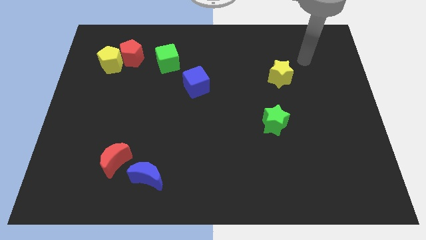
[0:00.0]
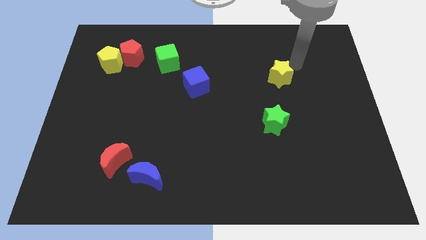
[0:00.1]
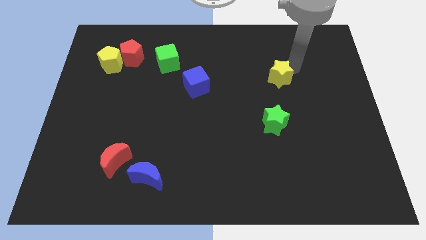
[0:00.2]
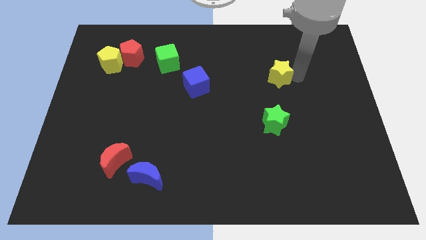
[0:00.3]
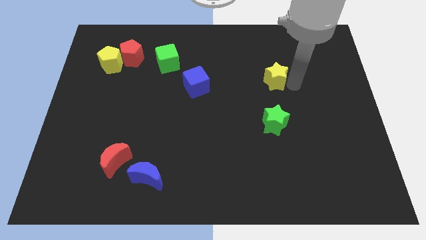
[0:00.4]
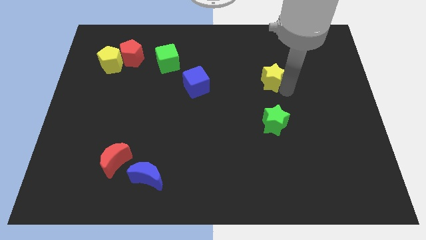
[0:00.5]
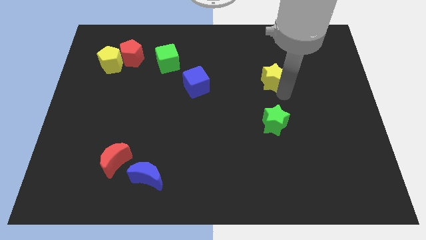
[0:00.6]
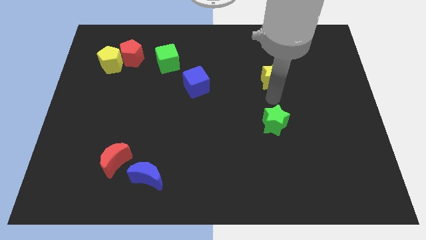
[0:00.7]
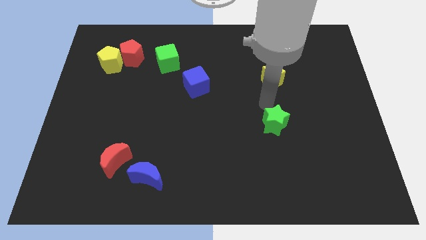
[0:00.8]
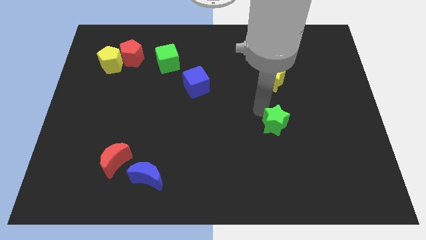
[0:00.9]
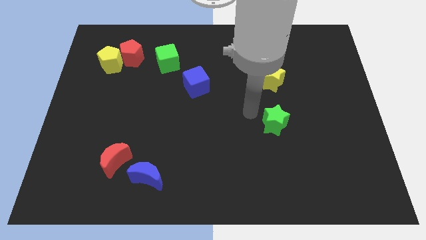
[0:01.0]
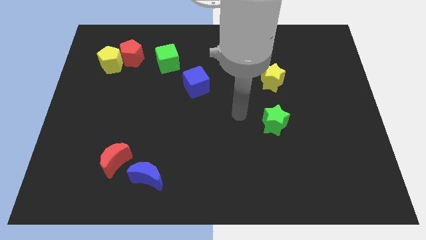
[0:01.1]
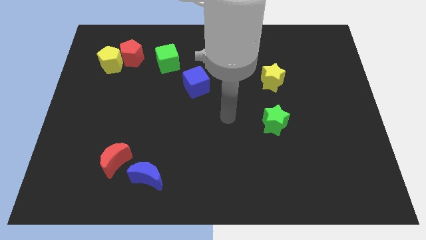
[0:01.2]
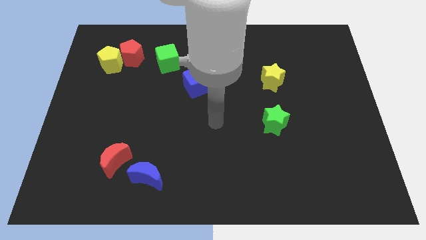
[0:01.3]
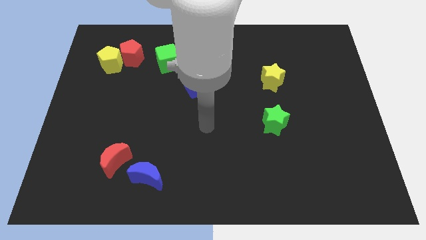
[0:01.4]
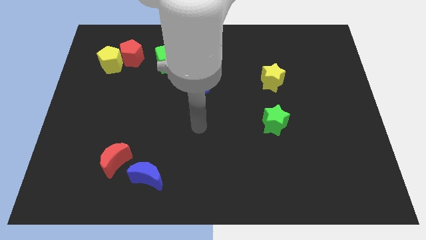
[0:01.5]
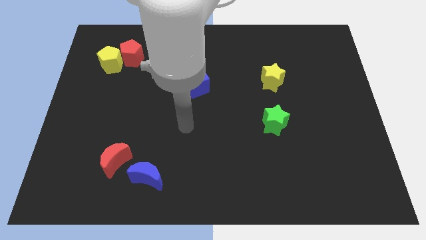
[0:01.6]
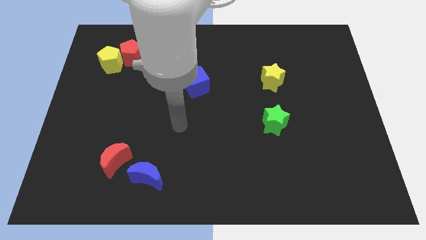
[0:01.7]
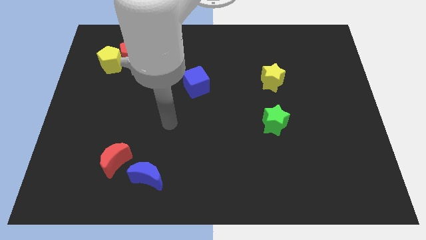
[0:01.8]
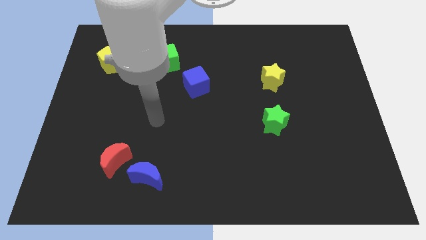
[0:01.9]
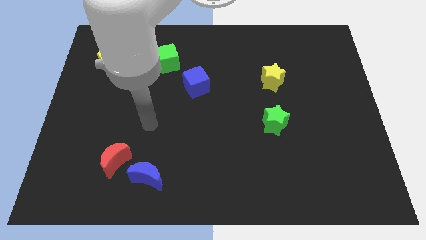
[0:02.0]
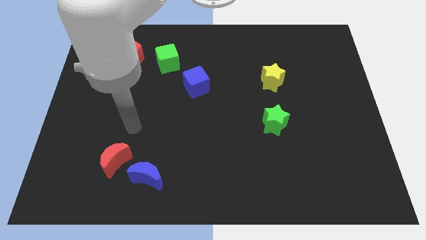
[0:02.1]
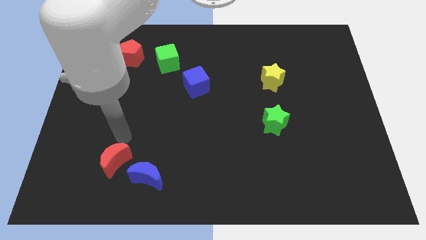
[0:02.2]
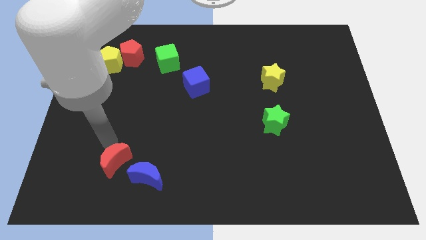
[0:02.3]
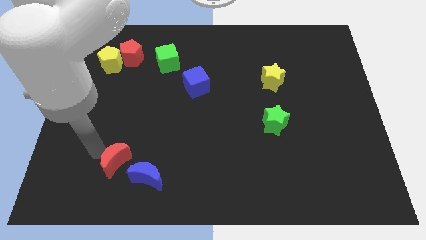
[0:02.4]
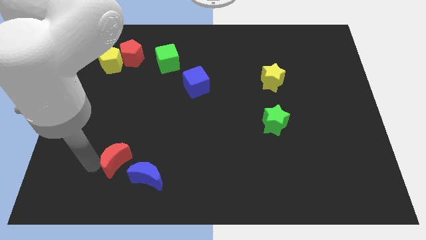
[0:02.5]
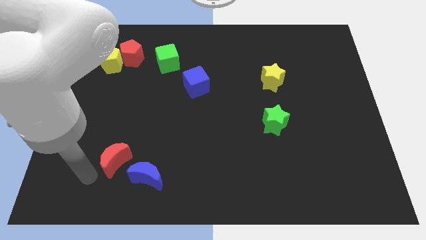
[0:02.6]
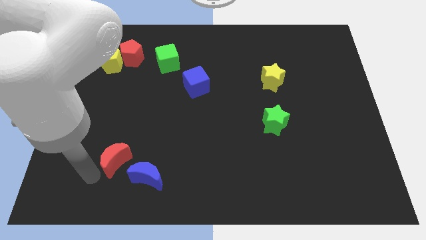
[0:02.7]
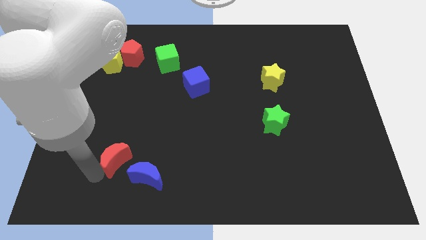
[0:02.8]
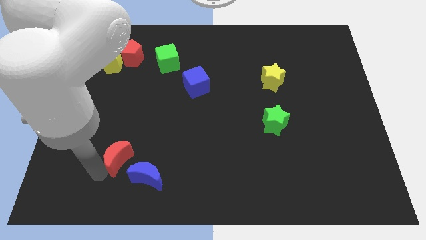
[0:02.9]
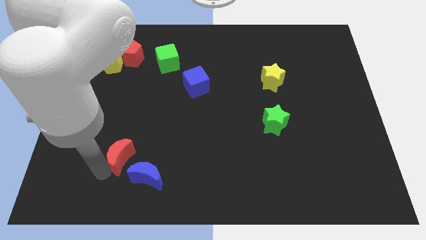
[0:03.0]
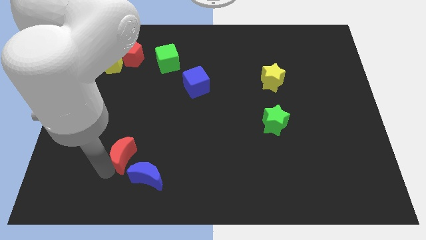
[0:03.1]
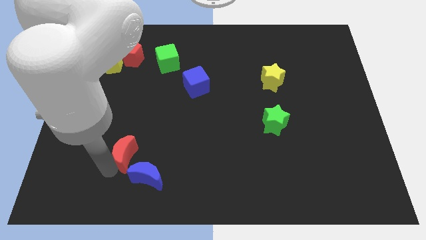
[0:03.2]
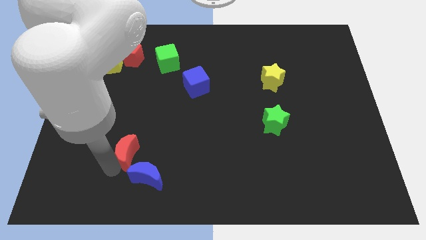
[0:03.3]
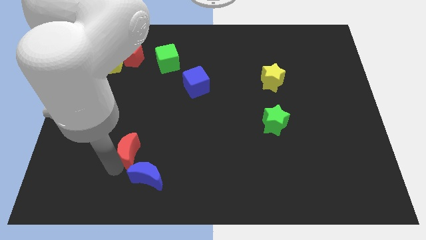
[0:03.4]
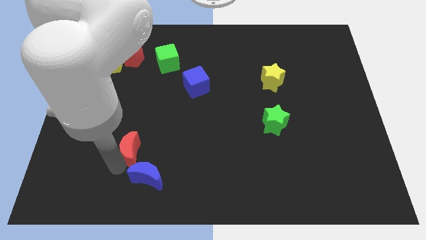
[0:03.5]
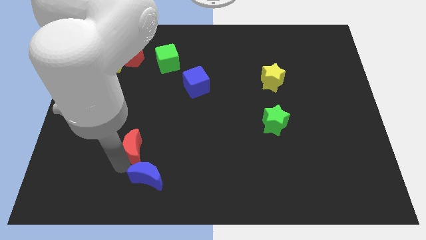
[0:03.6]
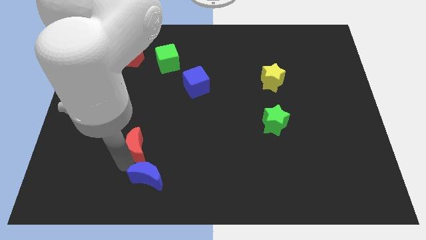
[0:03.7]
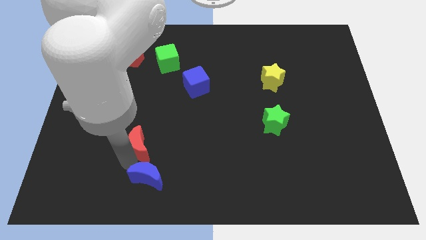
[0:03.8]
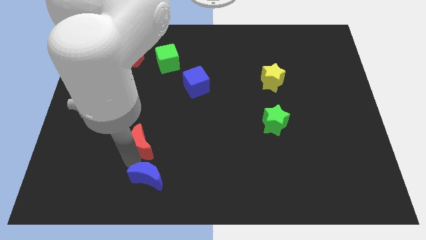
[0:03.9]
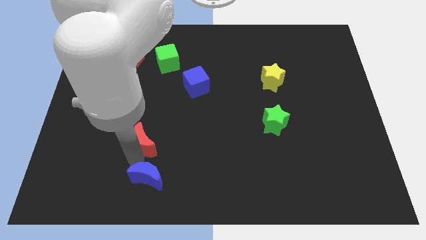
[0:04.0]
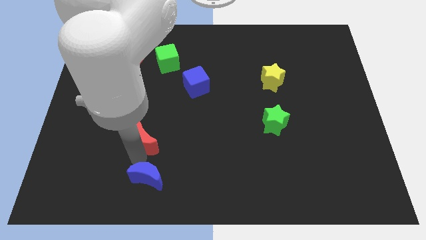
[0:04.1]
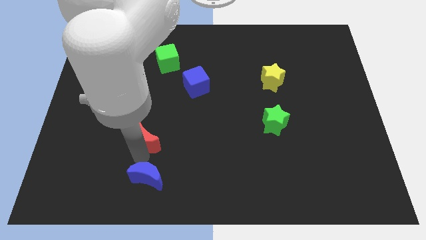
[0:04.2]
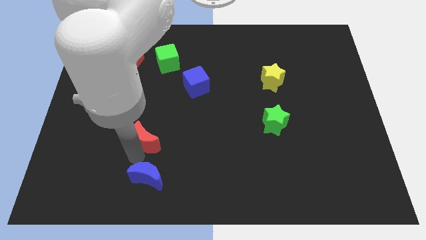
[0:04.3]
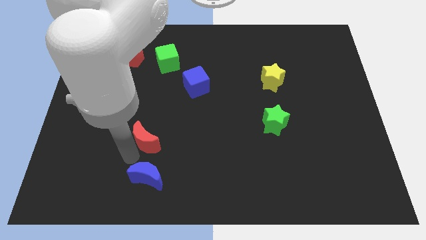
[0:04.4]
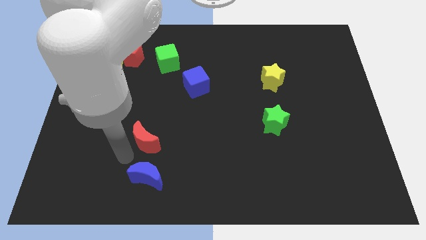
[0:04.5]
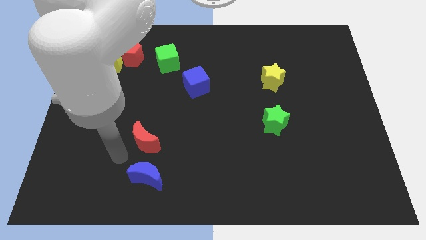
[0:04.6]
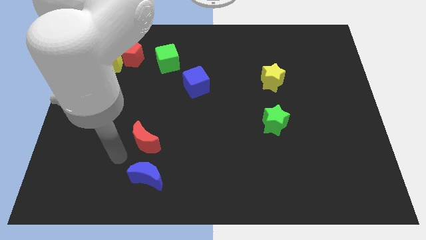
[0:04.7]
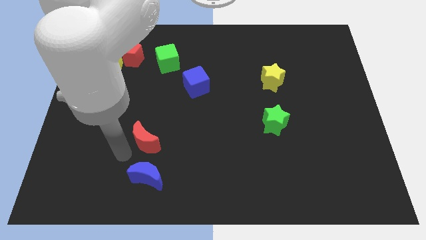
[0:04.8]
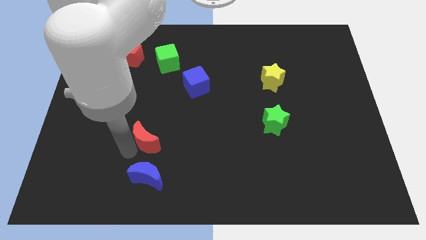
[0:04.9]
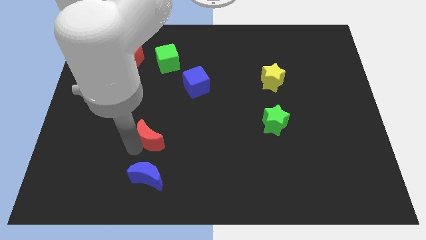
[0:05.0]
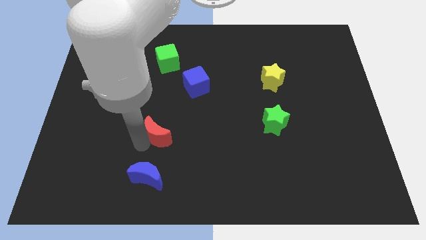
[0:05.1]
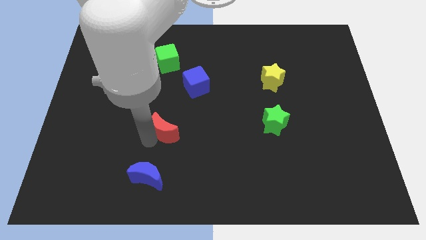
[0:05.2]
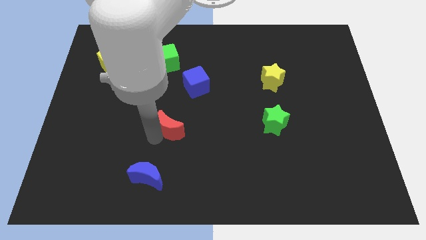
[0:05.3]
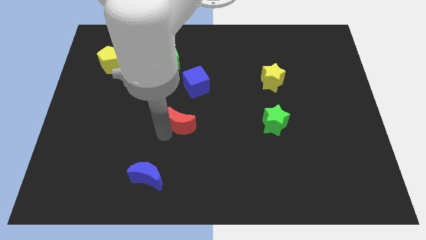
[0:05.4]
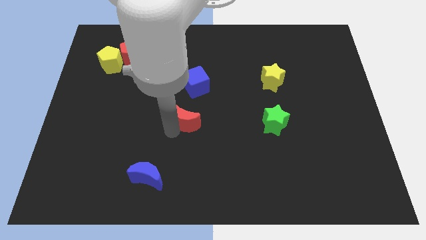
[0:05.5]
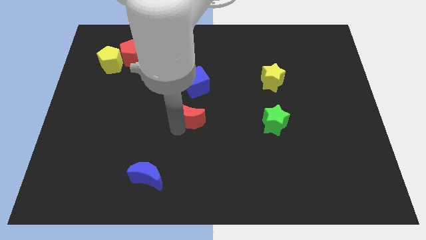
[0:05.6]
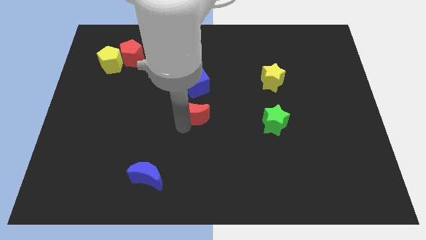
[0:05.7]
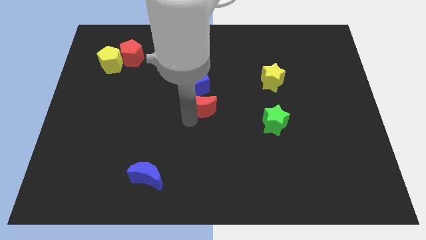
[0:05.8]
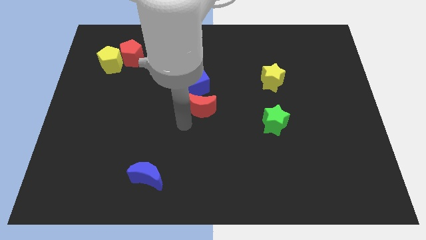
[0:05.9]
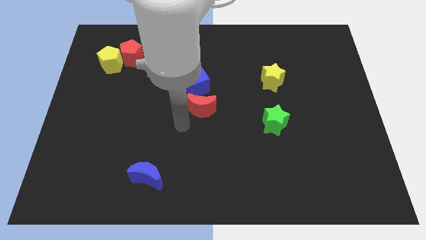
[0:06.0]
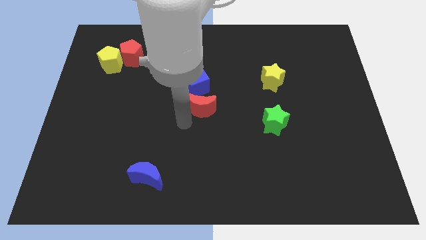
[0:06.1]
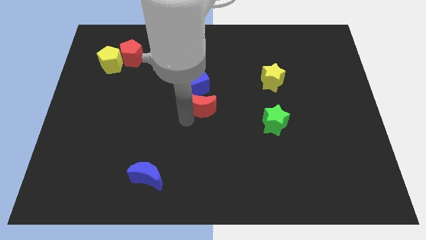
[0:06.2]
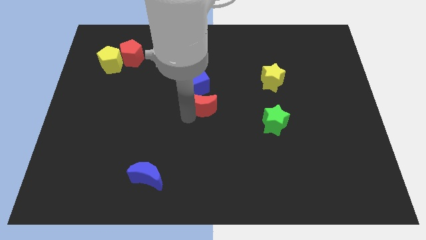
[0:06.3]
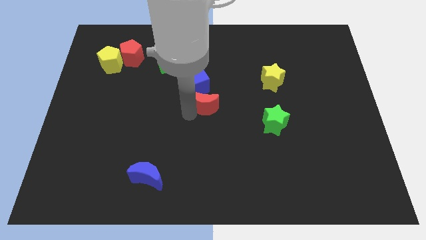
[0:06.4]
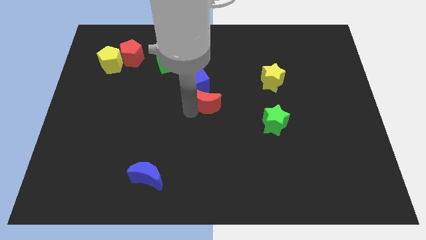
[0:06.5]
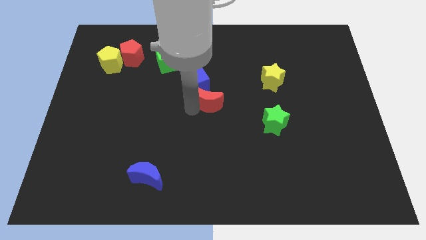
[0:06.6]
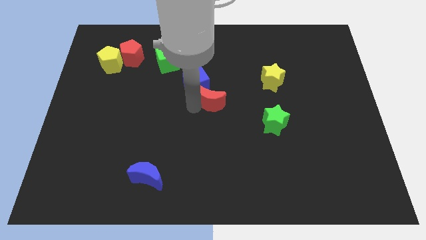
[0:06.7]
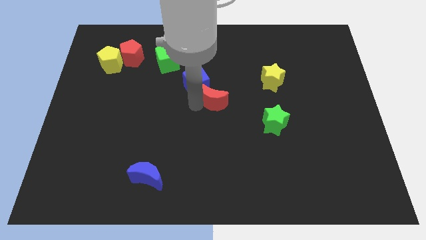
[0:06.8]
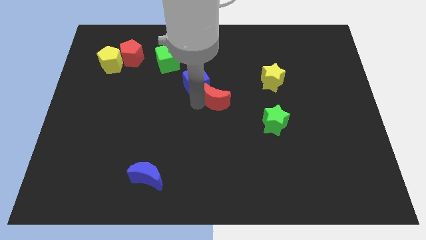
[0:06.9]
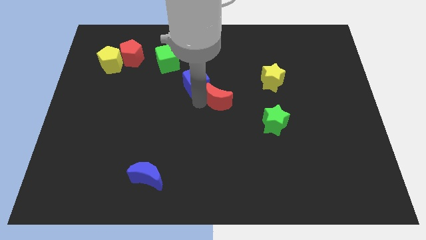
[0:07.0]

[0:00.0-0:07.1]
push the red moon to the right of the blue cube

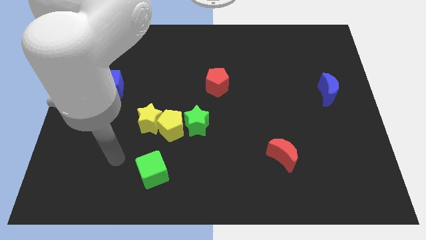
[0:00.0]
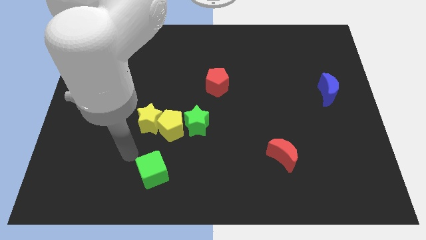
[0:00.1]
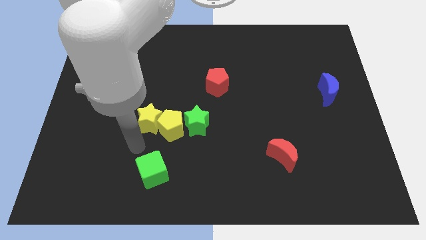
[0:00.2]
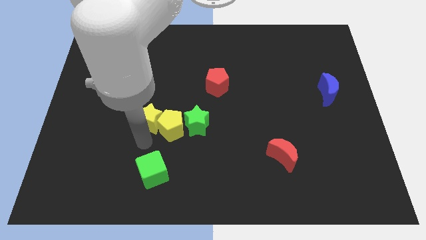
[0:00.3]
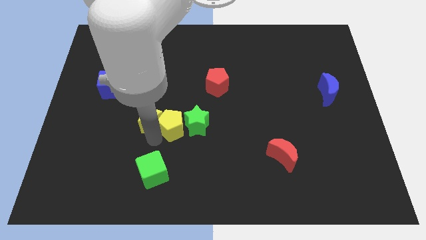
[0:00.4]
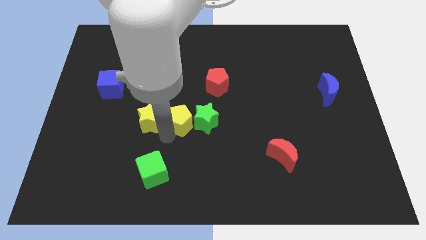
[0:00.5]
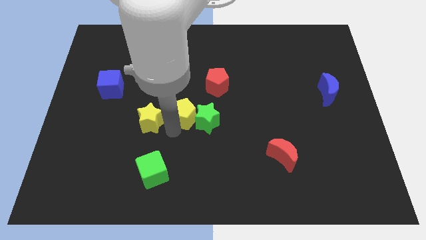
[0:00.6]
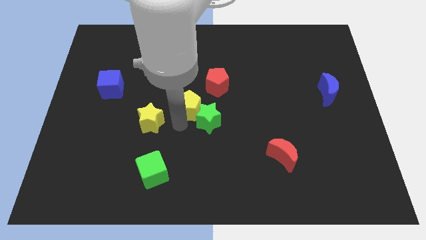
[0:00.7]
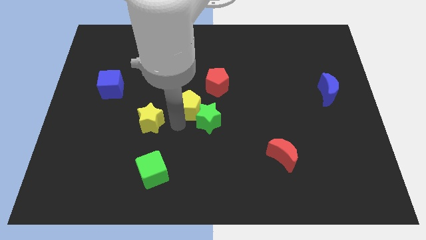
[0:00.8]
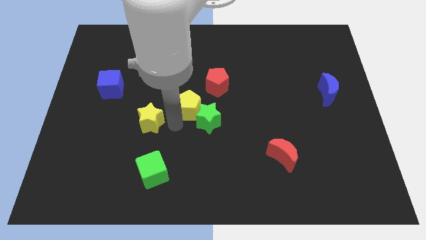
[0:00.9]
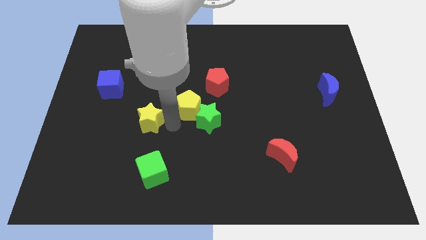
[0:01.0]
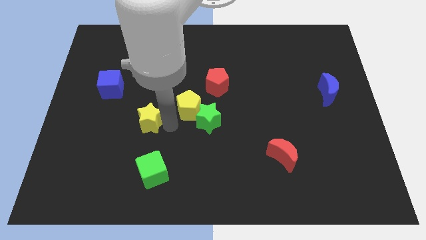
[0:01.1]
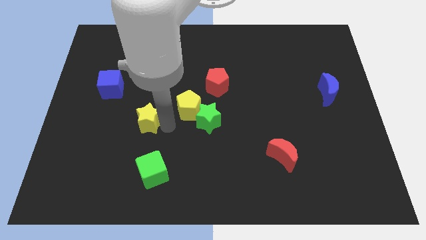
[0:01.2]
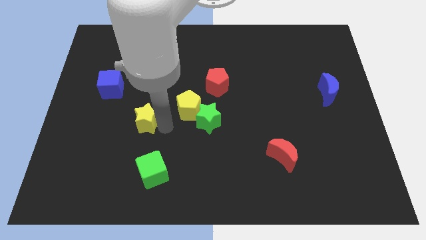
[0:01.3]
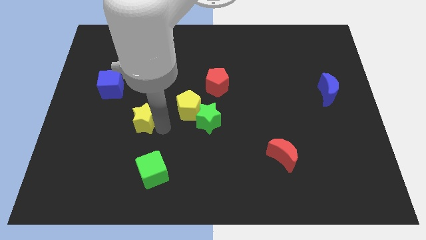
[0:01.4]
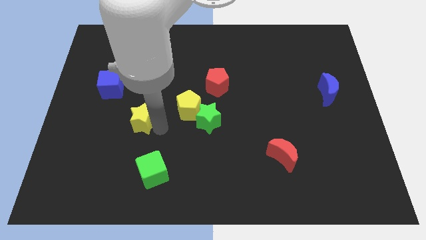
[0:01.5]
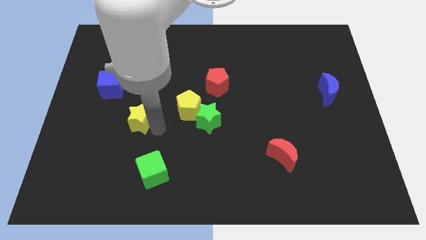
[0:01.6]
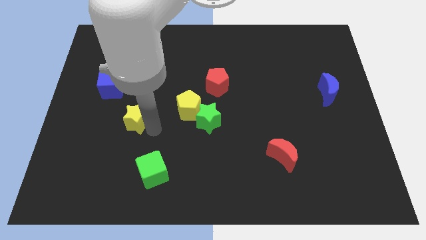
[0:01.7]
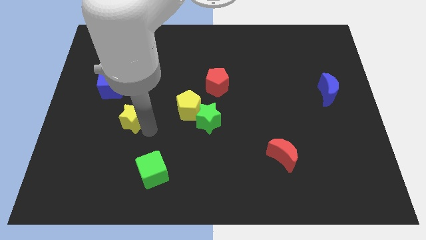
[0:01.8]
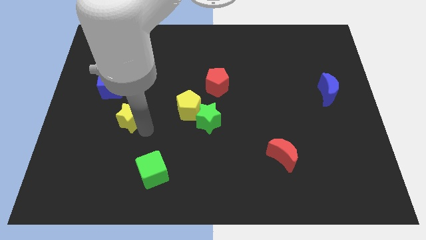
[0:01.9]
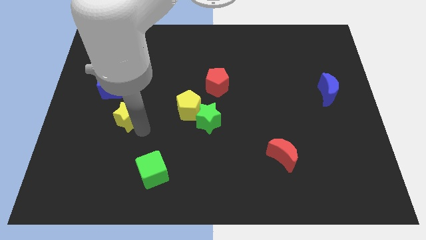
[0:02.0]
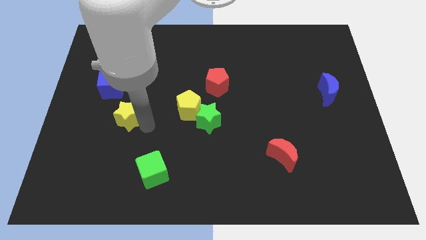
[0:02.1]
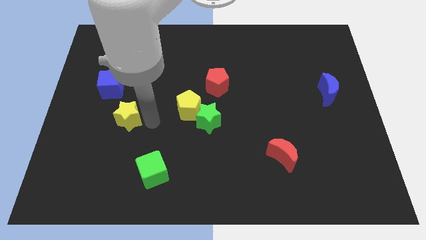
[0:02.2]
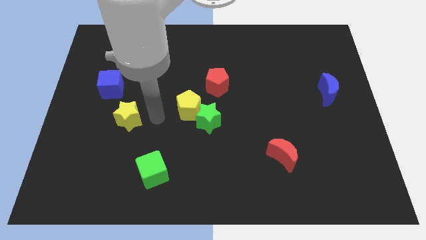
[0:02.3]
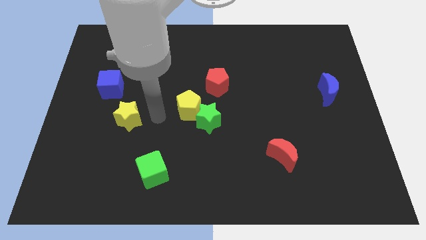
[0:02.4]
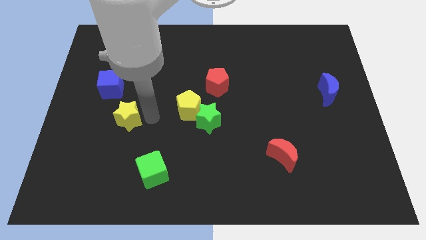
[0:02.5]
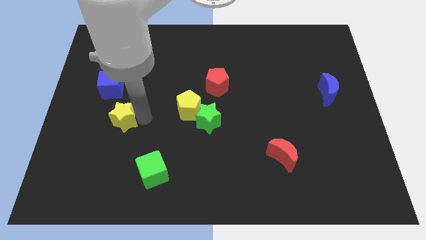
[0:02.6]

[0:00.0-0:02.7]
put the yellow star to the bottom side of the blue cube
